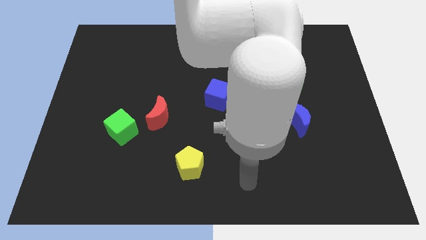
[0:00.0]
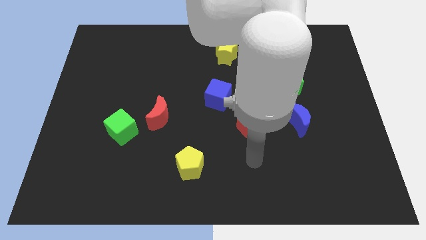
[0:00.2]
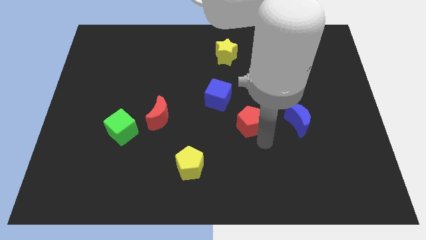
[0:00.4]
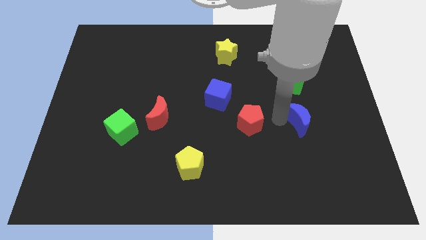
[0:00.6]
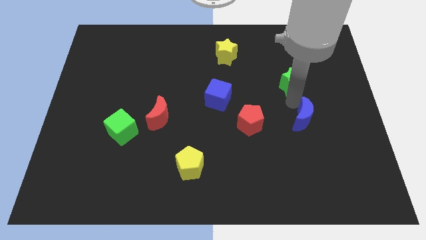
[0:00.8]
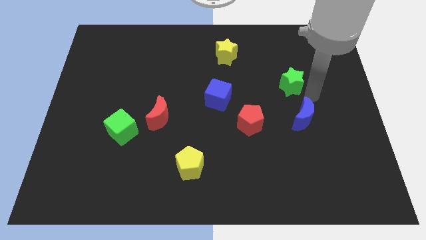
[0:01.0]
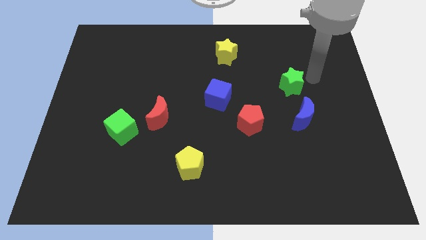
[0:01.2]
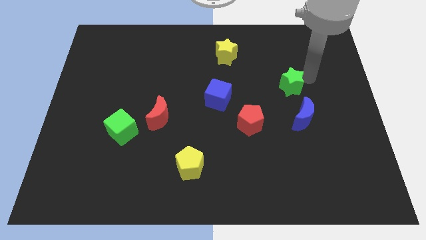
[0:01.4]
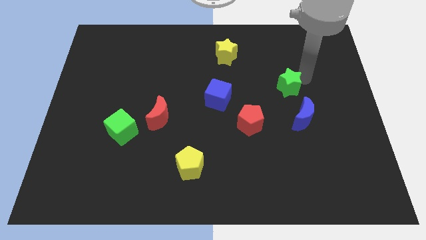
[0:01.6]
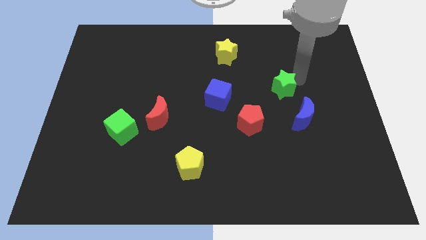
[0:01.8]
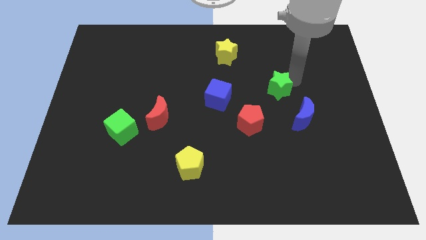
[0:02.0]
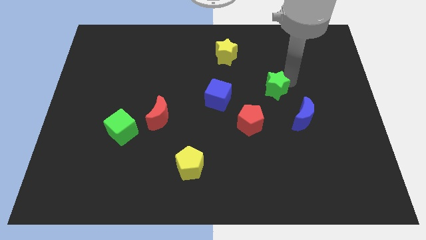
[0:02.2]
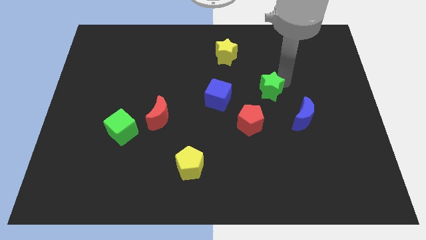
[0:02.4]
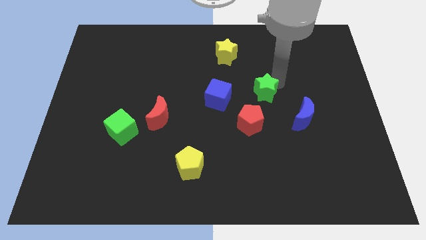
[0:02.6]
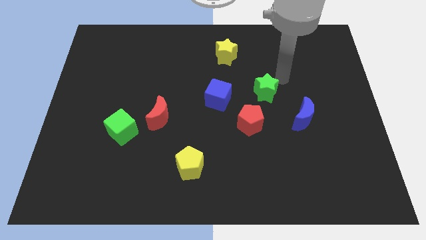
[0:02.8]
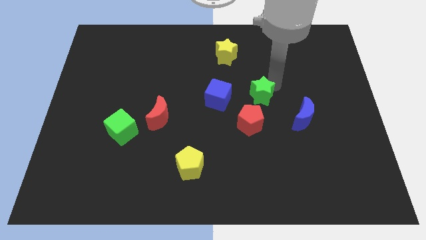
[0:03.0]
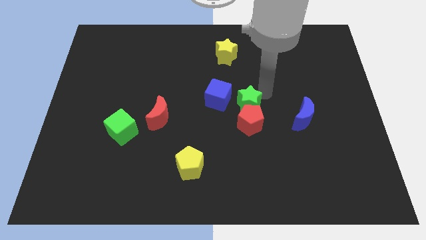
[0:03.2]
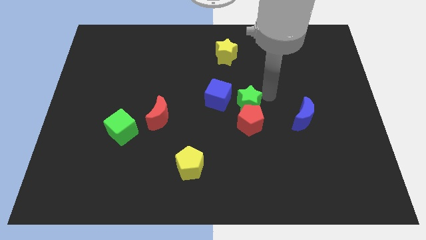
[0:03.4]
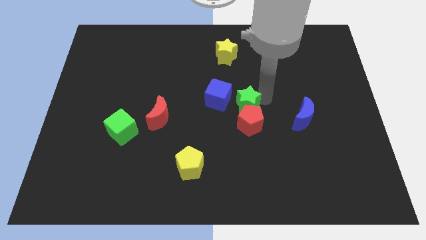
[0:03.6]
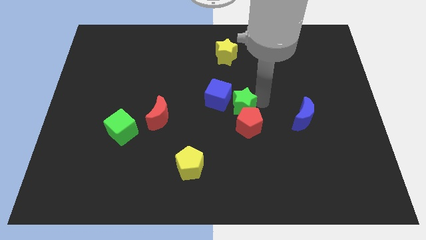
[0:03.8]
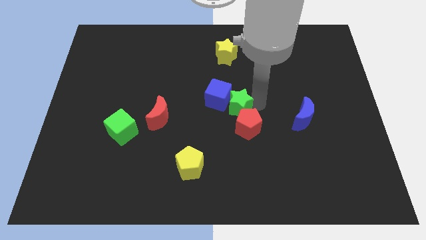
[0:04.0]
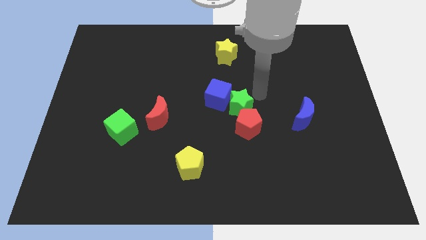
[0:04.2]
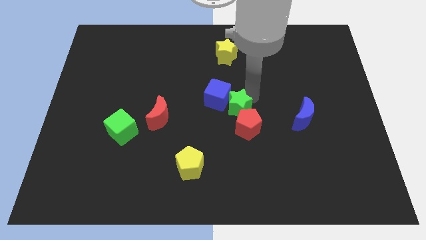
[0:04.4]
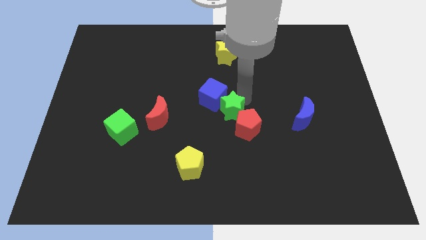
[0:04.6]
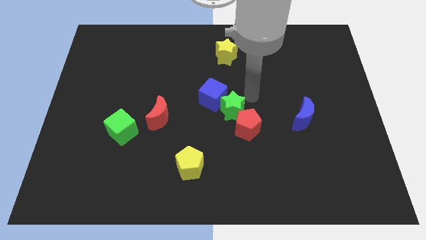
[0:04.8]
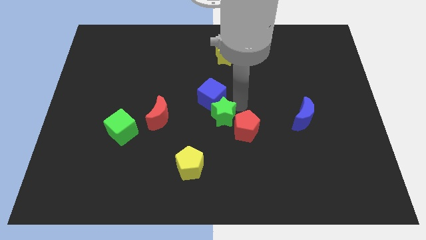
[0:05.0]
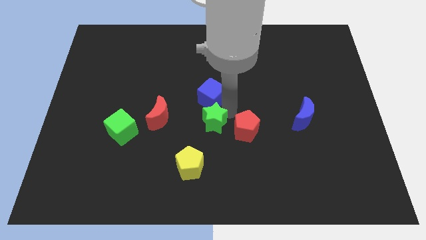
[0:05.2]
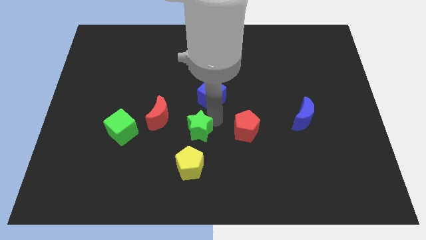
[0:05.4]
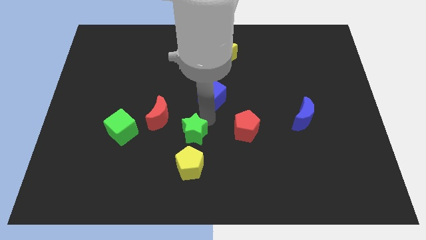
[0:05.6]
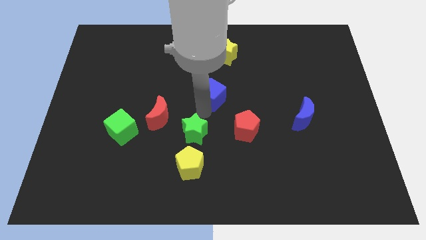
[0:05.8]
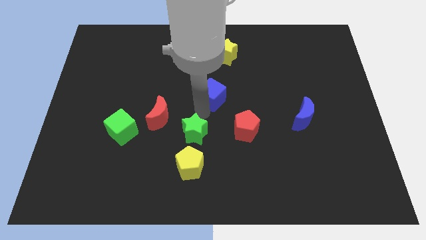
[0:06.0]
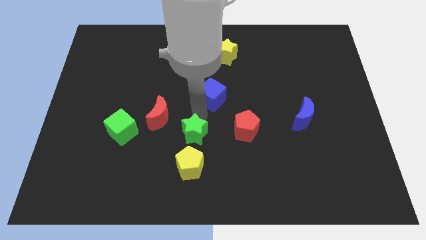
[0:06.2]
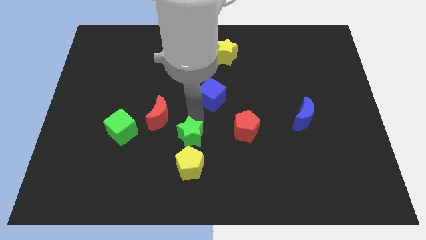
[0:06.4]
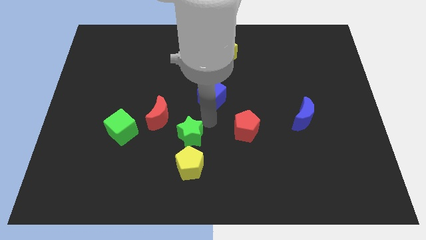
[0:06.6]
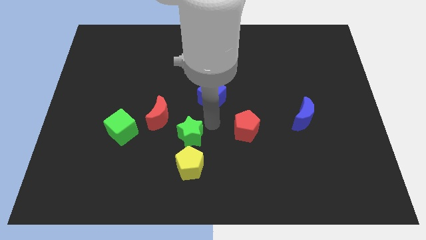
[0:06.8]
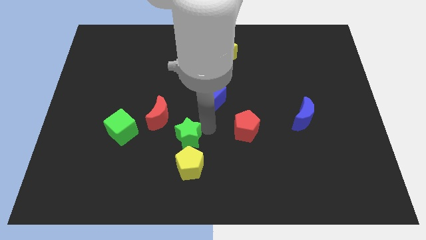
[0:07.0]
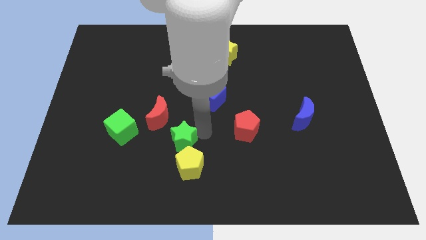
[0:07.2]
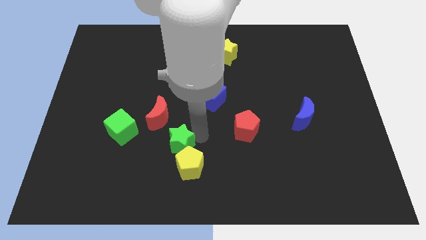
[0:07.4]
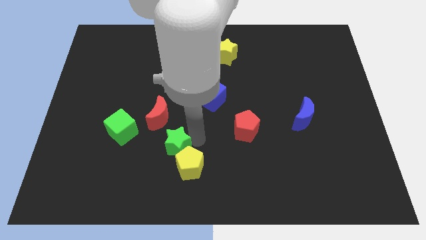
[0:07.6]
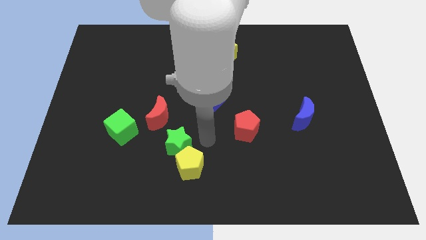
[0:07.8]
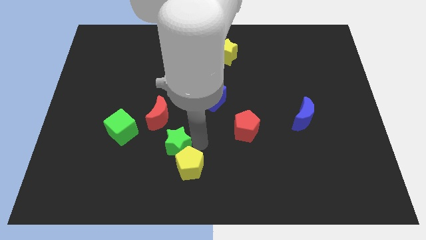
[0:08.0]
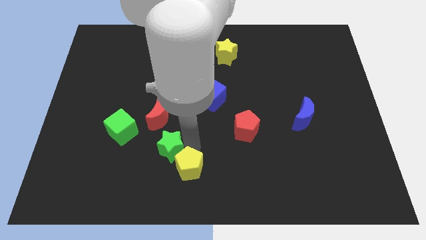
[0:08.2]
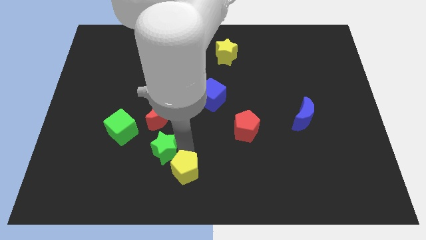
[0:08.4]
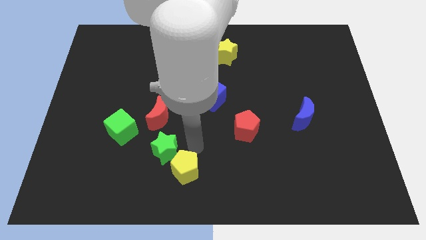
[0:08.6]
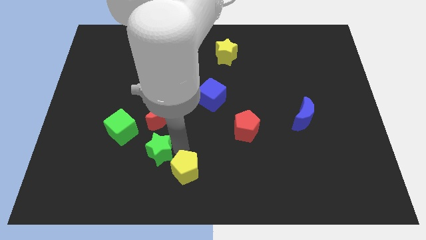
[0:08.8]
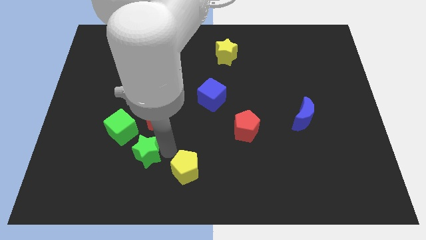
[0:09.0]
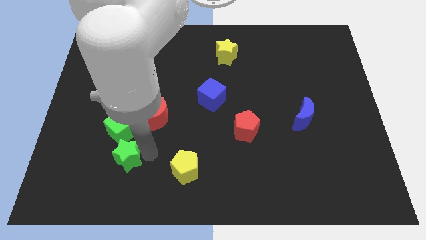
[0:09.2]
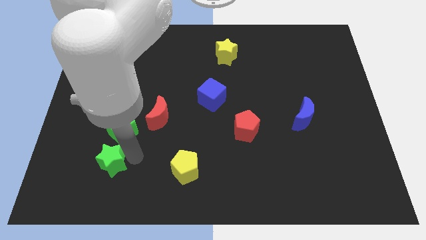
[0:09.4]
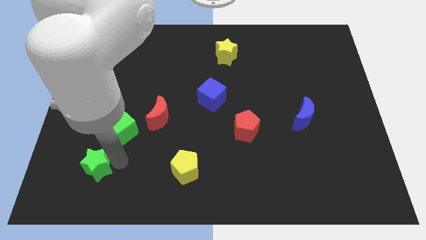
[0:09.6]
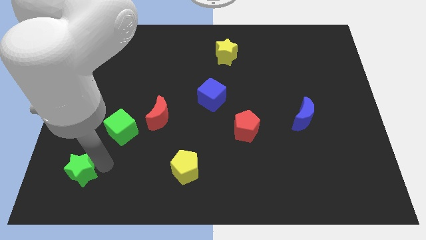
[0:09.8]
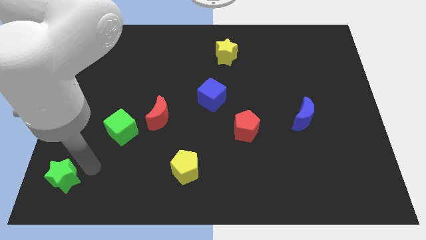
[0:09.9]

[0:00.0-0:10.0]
move the green star to the lower left corner

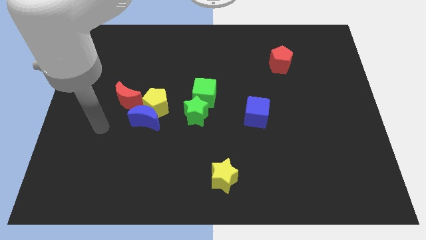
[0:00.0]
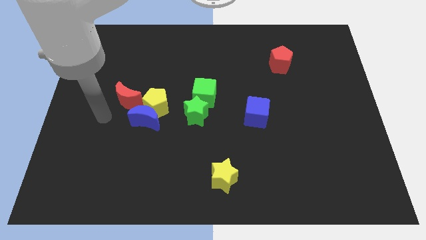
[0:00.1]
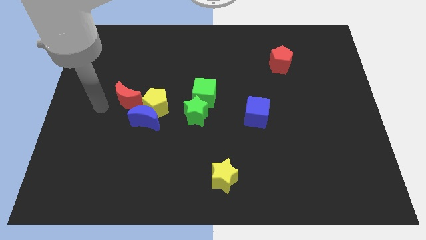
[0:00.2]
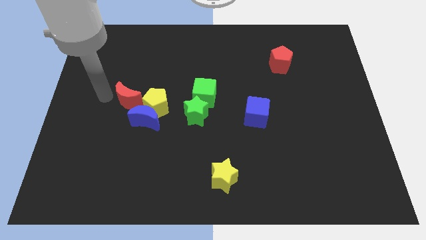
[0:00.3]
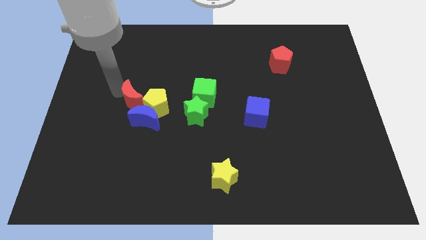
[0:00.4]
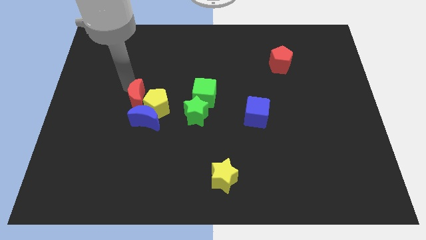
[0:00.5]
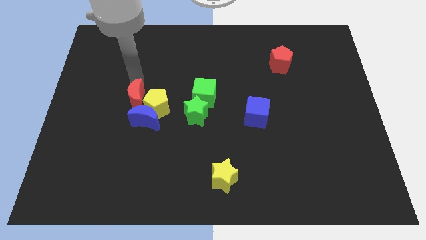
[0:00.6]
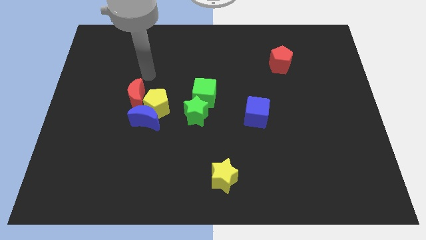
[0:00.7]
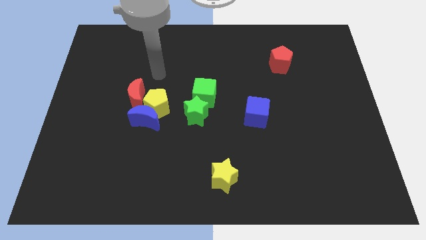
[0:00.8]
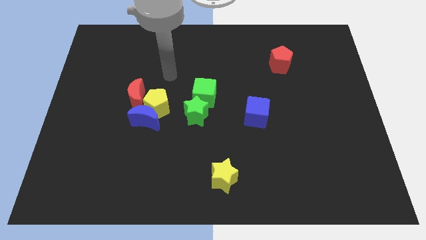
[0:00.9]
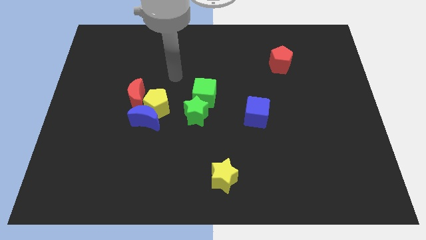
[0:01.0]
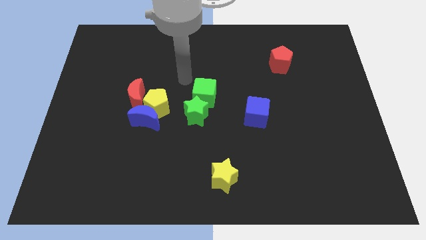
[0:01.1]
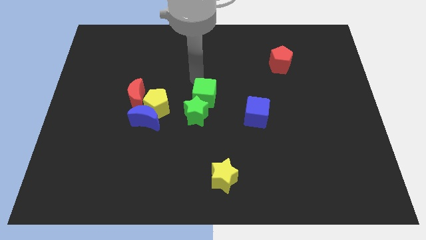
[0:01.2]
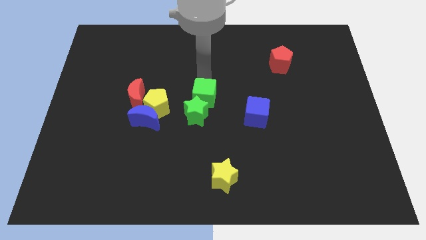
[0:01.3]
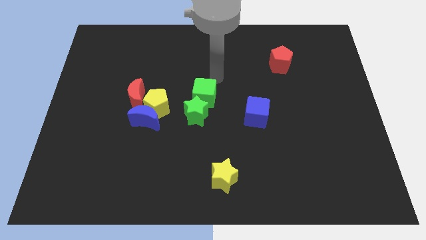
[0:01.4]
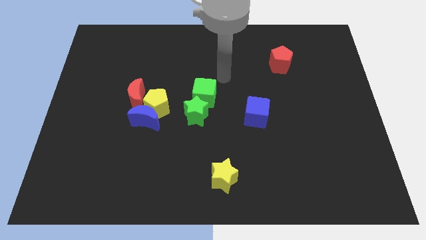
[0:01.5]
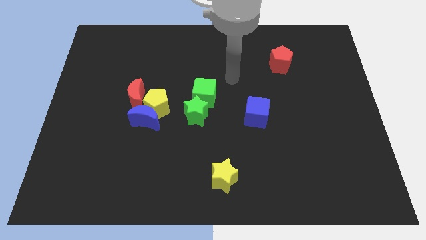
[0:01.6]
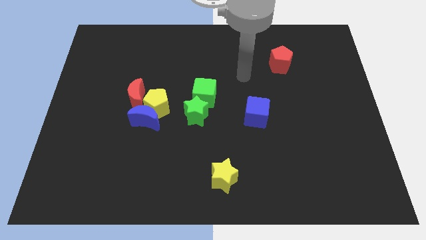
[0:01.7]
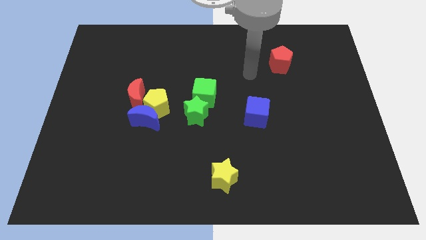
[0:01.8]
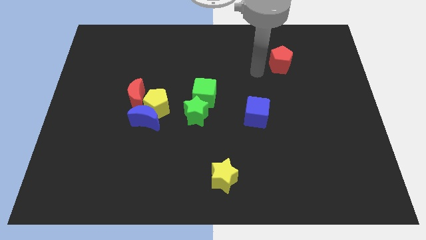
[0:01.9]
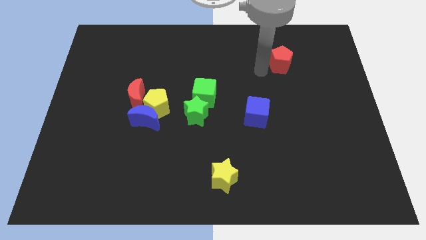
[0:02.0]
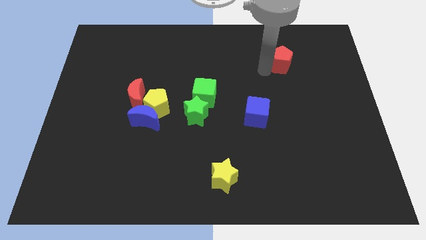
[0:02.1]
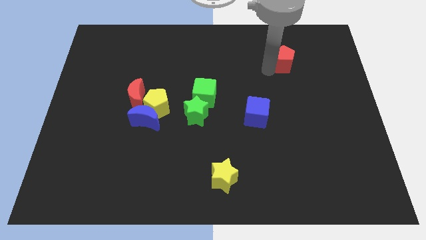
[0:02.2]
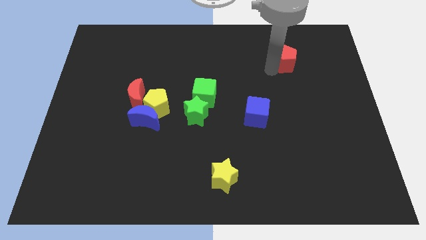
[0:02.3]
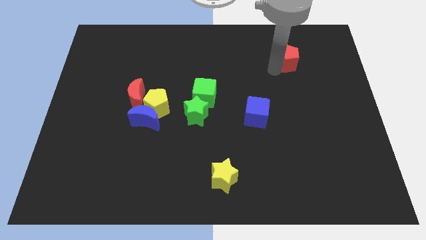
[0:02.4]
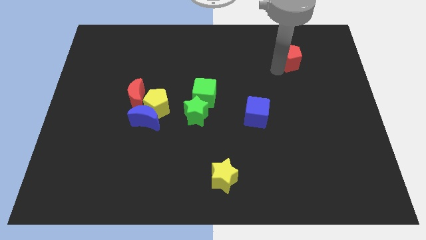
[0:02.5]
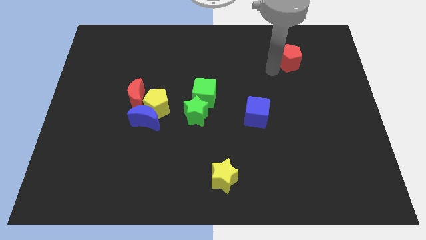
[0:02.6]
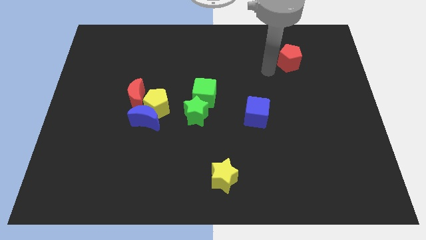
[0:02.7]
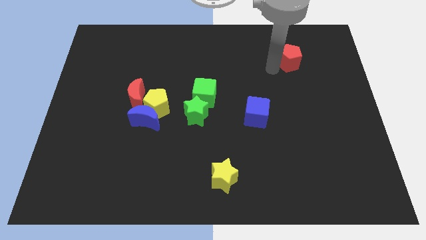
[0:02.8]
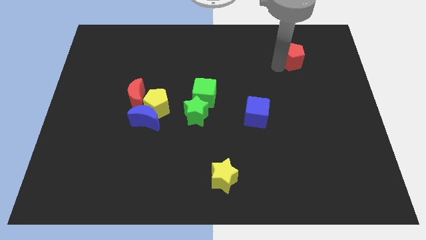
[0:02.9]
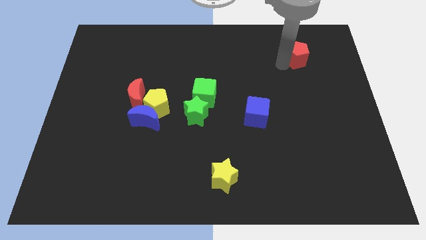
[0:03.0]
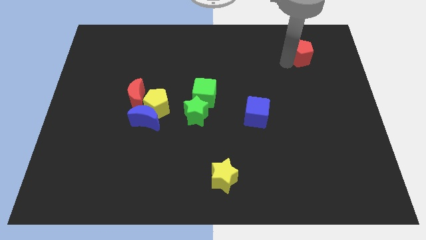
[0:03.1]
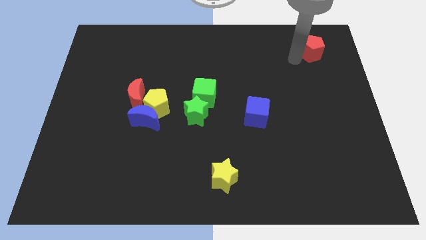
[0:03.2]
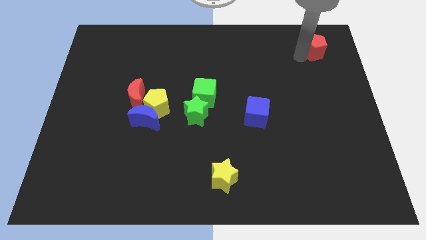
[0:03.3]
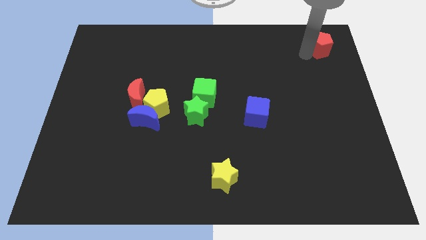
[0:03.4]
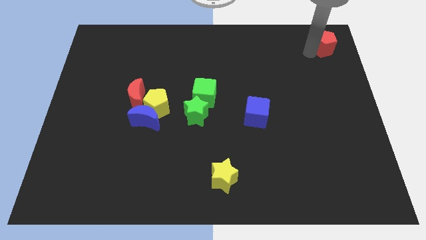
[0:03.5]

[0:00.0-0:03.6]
move the red pentagon to the top right corner
